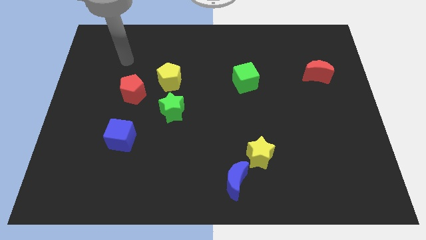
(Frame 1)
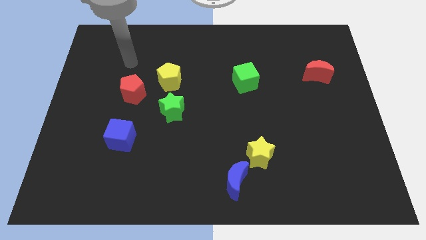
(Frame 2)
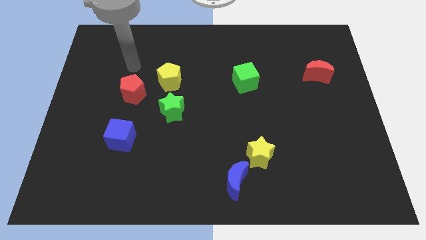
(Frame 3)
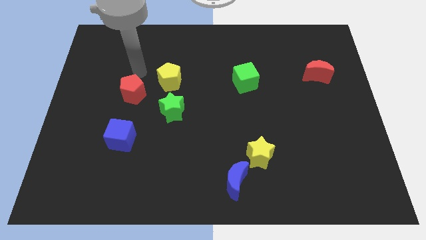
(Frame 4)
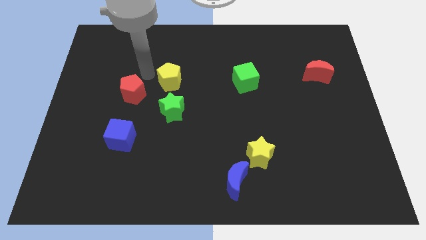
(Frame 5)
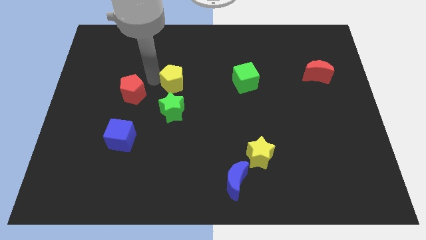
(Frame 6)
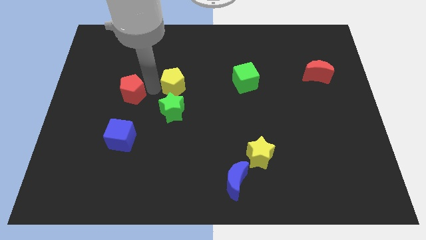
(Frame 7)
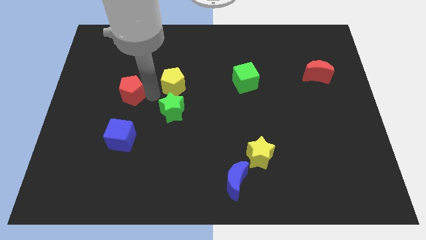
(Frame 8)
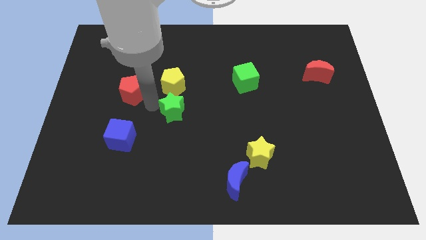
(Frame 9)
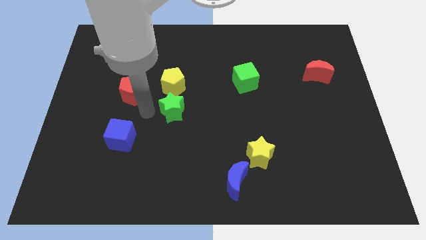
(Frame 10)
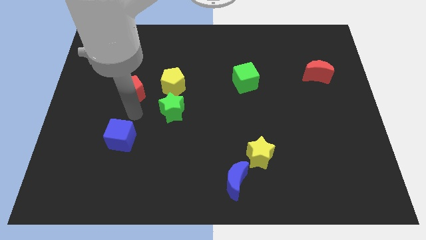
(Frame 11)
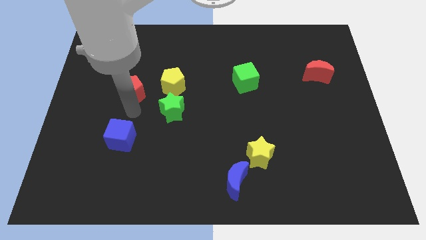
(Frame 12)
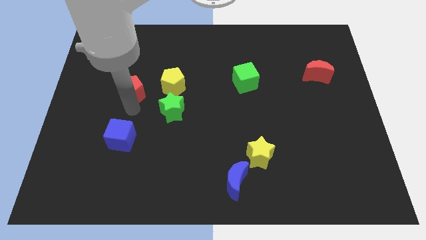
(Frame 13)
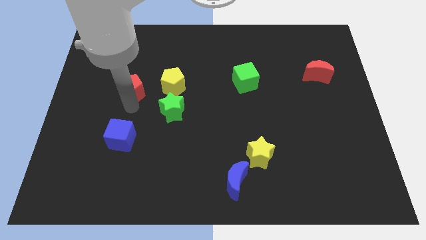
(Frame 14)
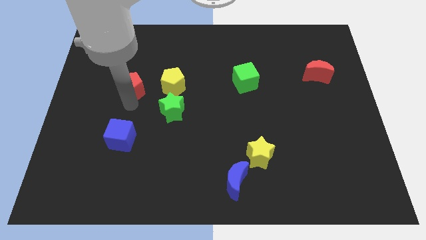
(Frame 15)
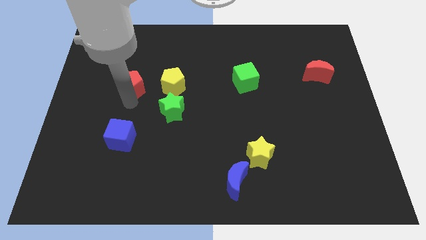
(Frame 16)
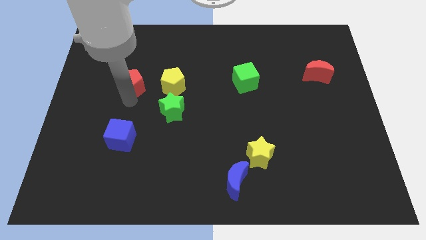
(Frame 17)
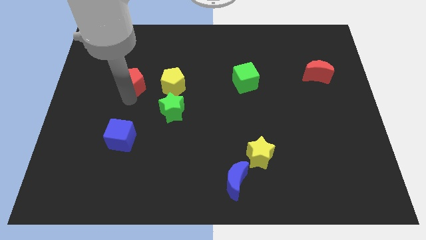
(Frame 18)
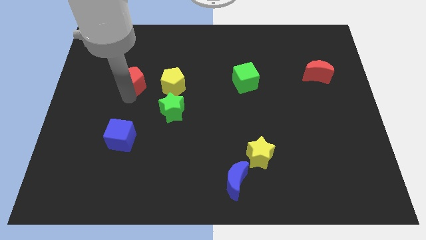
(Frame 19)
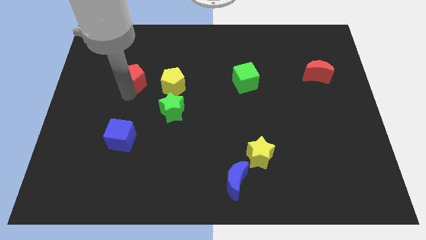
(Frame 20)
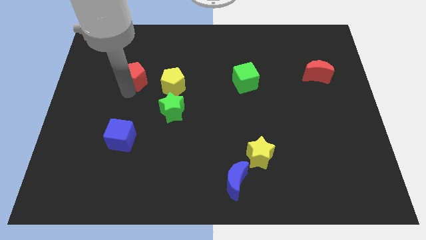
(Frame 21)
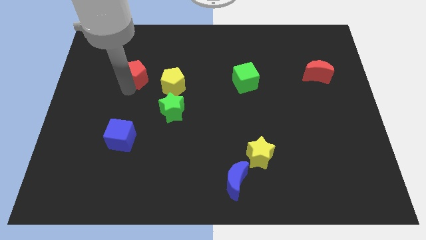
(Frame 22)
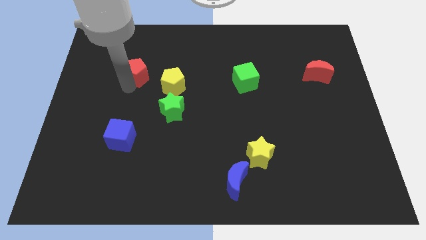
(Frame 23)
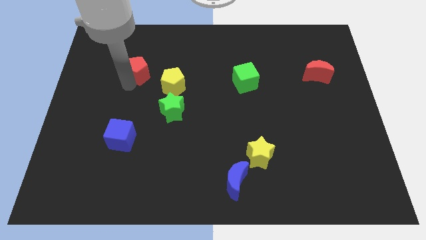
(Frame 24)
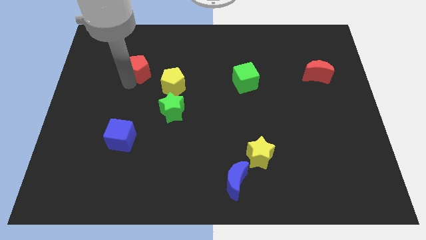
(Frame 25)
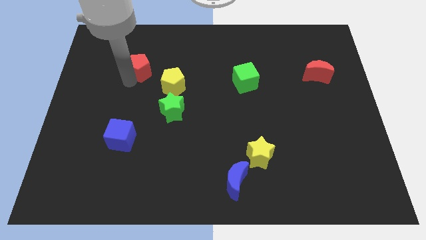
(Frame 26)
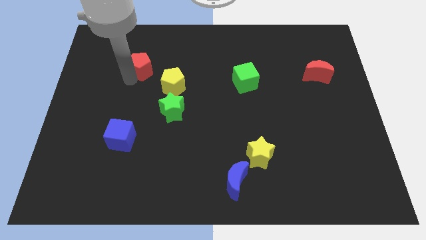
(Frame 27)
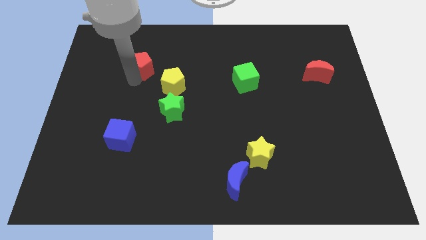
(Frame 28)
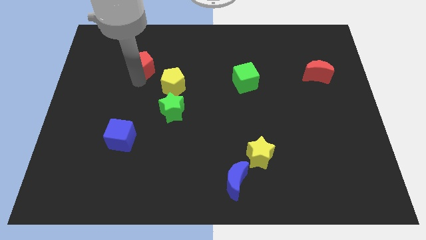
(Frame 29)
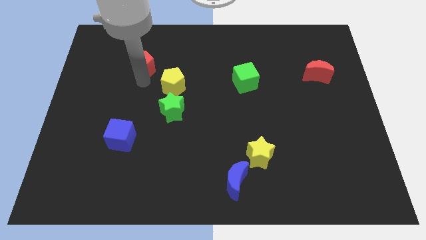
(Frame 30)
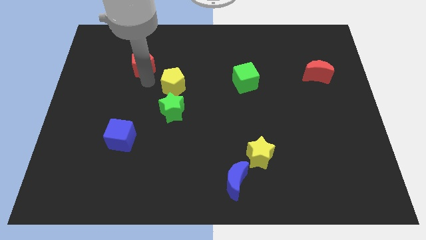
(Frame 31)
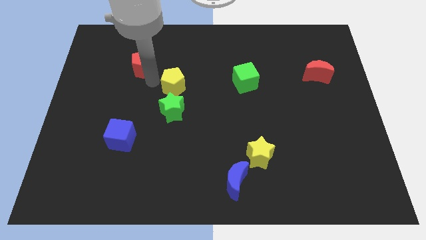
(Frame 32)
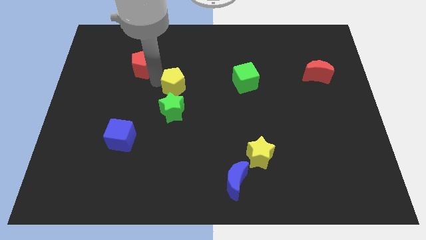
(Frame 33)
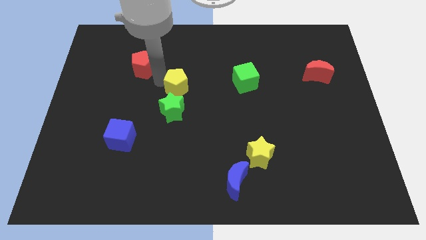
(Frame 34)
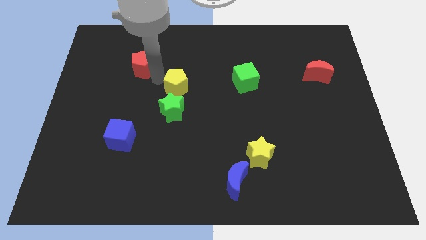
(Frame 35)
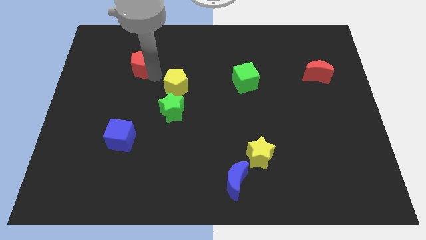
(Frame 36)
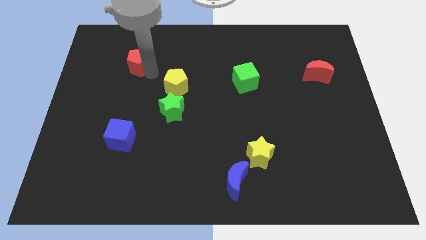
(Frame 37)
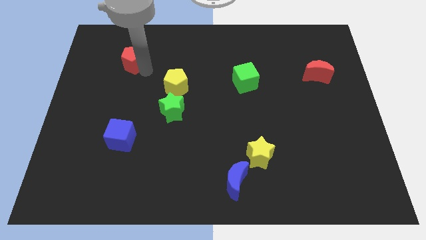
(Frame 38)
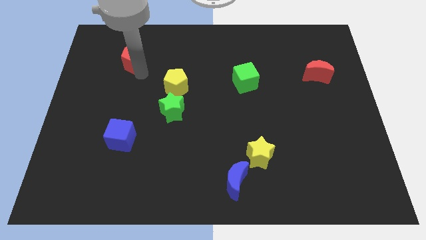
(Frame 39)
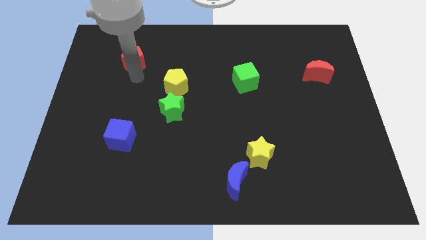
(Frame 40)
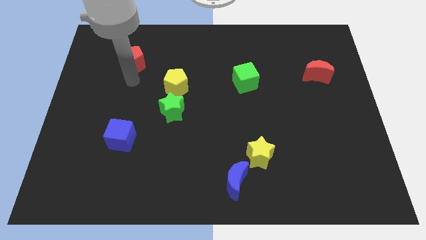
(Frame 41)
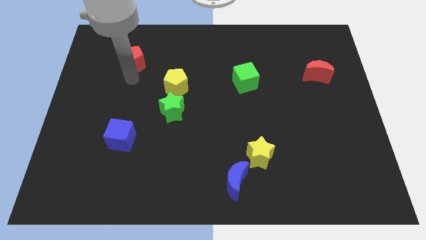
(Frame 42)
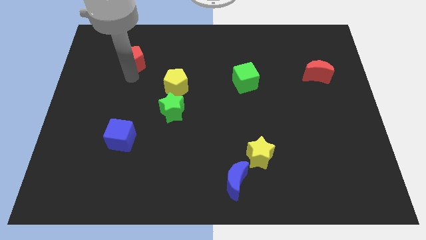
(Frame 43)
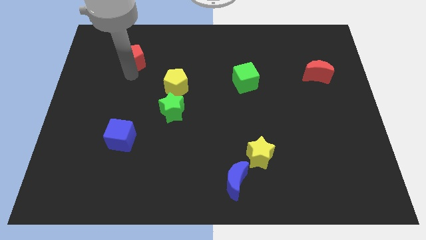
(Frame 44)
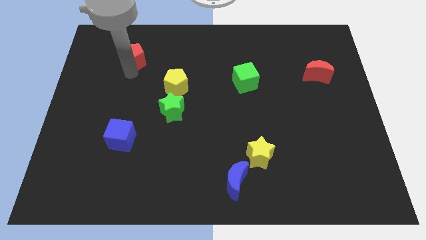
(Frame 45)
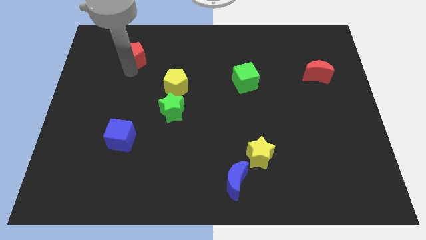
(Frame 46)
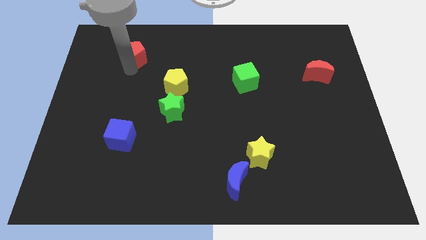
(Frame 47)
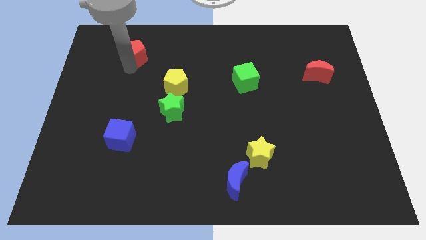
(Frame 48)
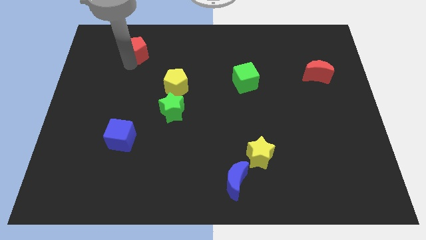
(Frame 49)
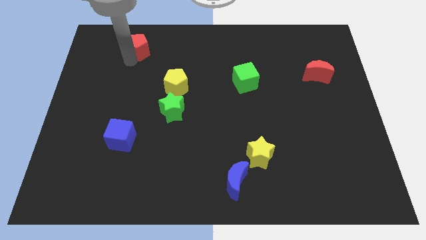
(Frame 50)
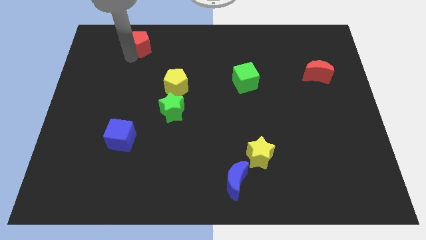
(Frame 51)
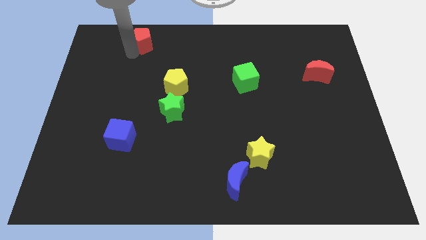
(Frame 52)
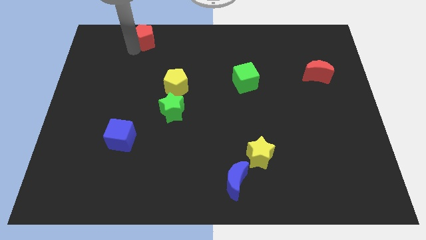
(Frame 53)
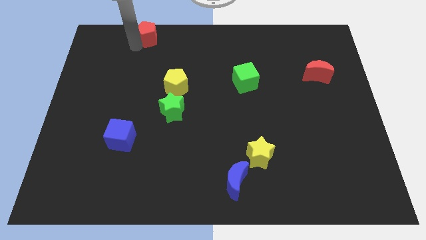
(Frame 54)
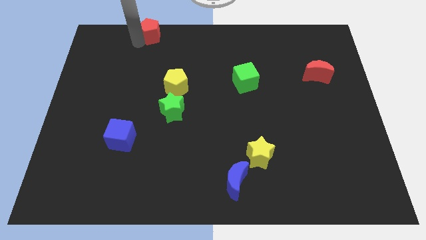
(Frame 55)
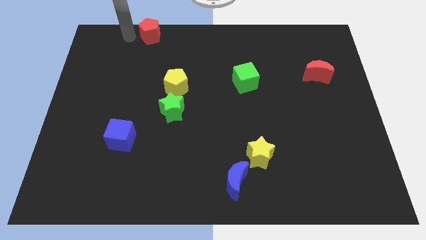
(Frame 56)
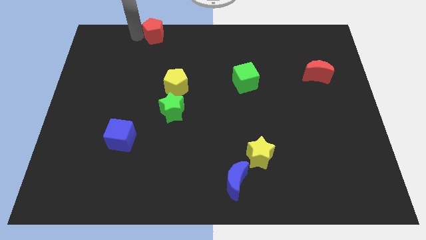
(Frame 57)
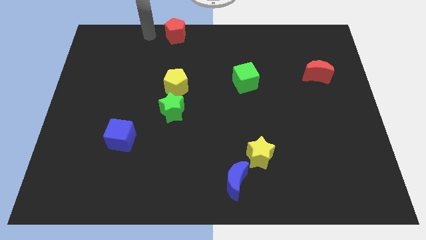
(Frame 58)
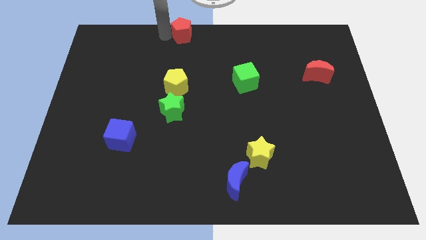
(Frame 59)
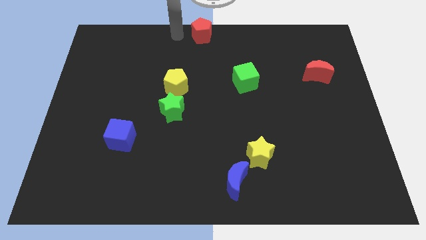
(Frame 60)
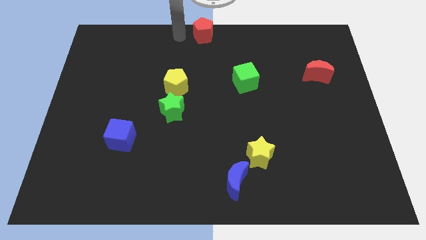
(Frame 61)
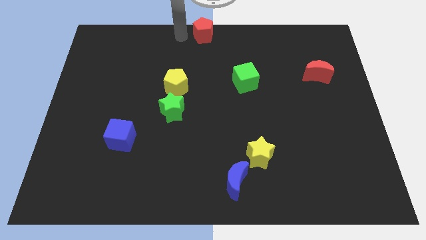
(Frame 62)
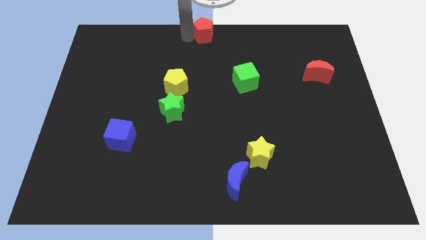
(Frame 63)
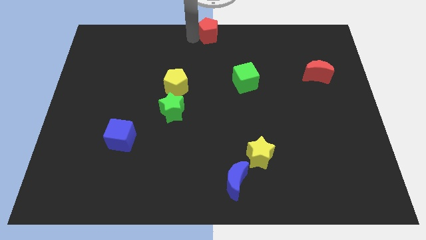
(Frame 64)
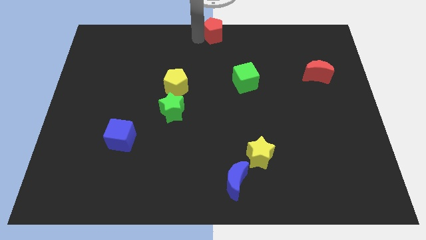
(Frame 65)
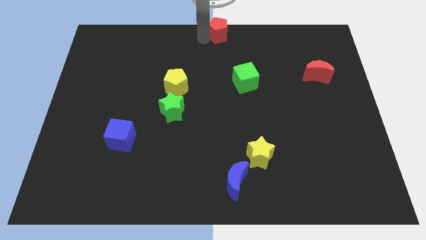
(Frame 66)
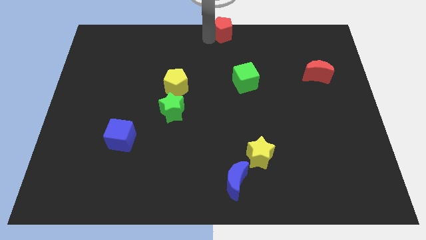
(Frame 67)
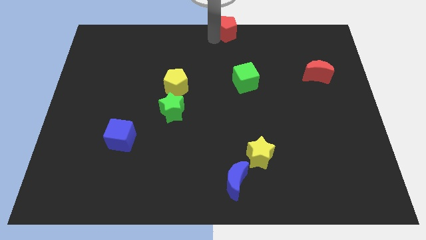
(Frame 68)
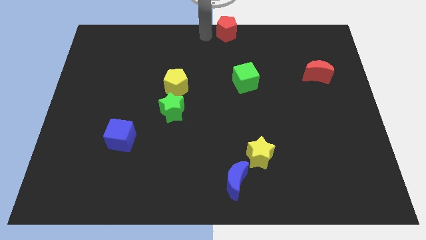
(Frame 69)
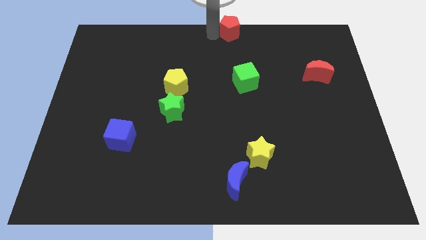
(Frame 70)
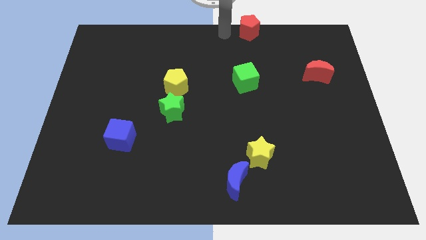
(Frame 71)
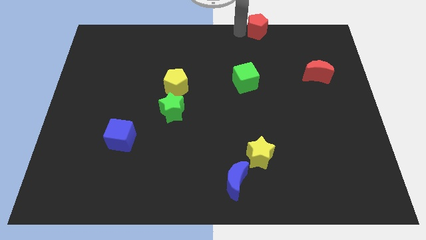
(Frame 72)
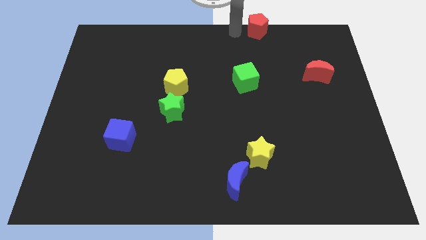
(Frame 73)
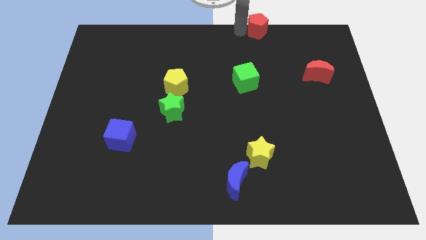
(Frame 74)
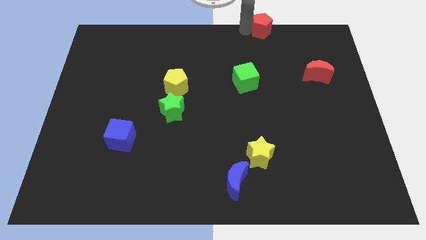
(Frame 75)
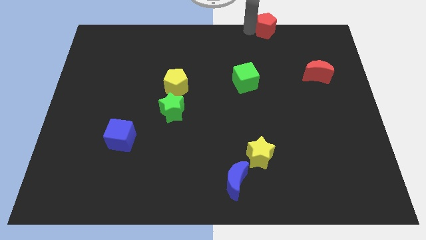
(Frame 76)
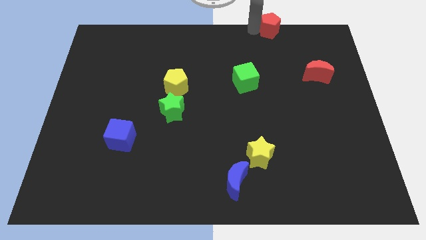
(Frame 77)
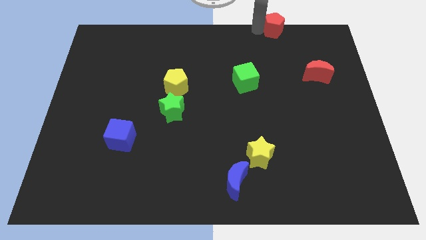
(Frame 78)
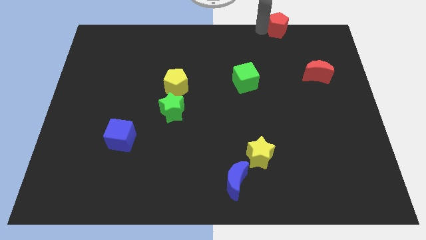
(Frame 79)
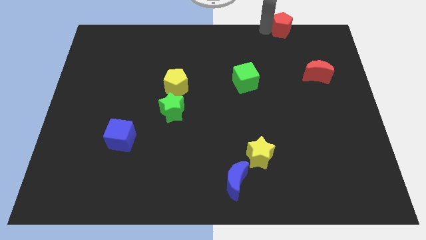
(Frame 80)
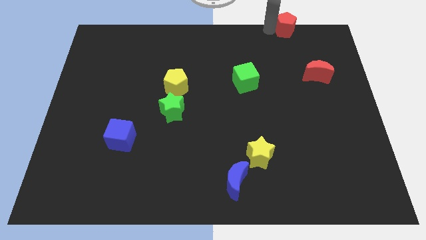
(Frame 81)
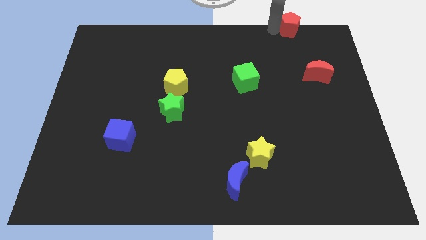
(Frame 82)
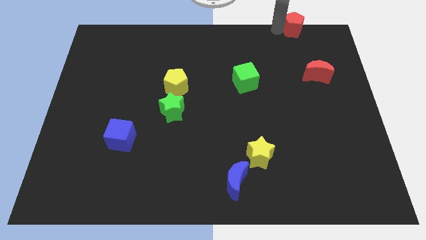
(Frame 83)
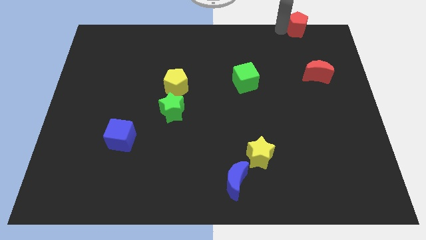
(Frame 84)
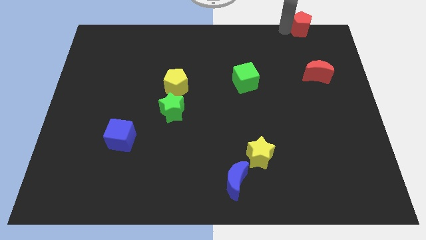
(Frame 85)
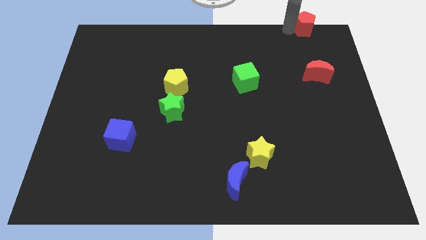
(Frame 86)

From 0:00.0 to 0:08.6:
move the red pentagon to the top right
